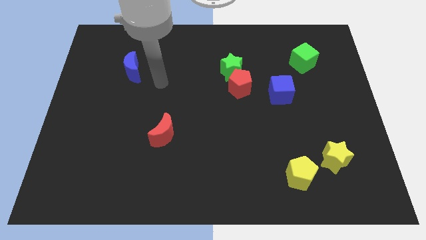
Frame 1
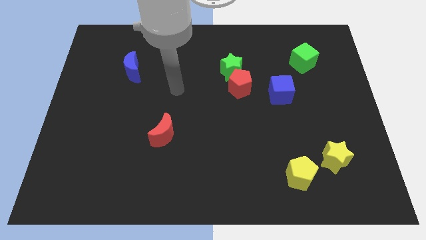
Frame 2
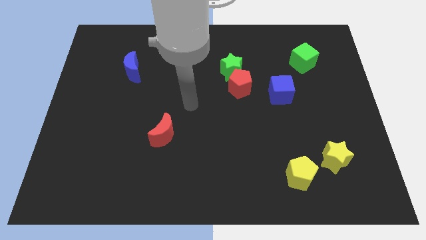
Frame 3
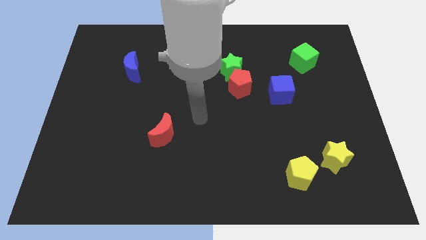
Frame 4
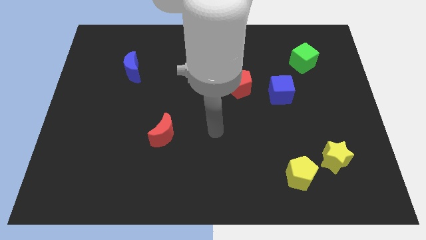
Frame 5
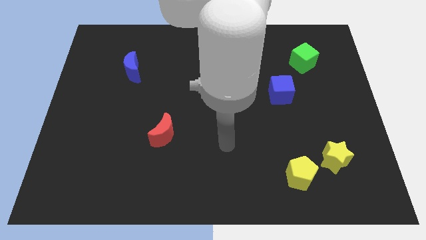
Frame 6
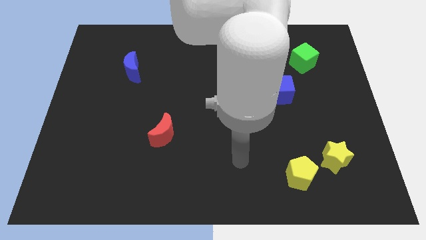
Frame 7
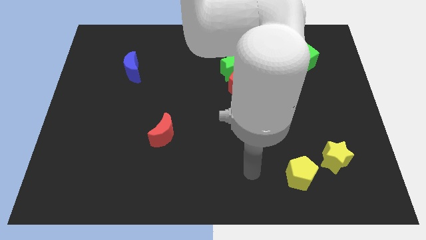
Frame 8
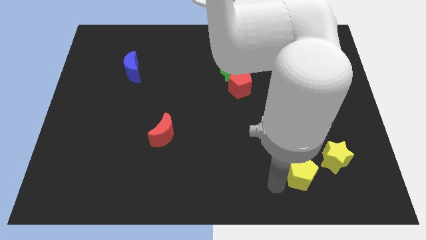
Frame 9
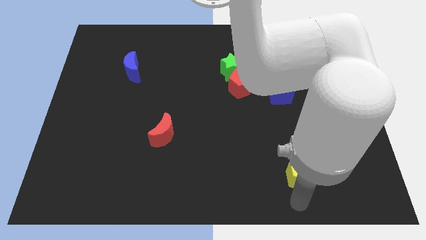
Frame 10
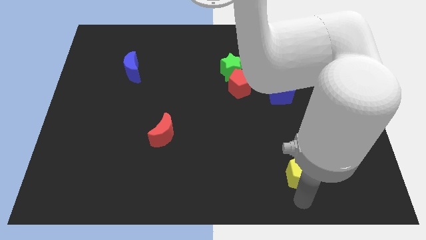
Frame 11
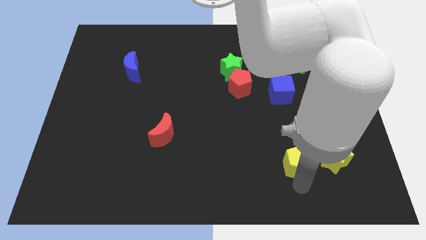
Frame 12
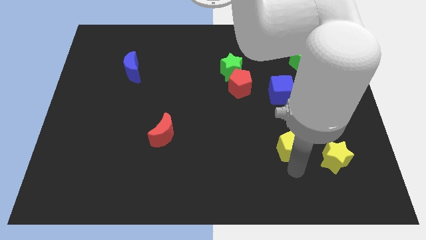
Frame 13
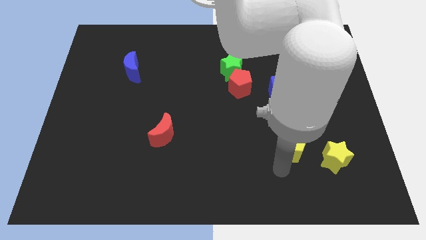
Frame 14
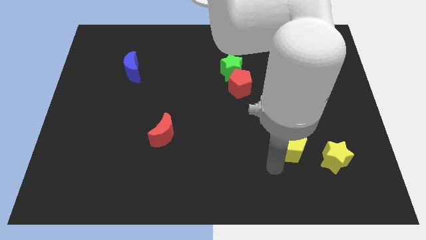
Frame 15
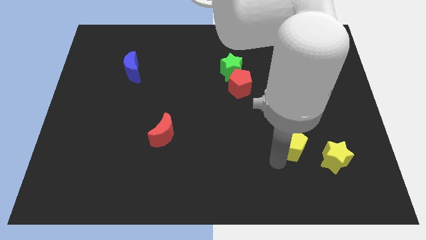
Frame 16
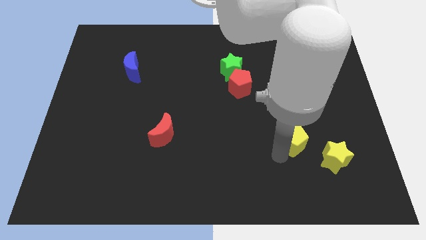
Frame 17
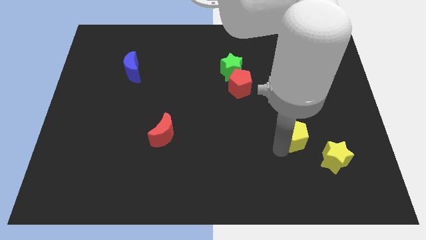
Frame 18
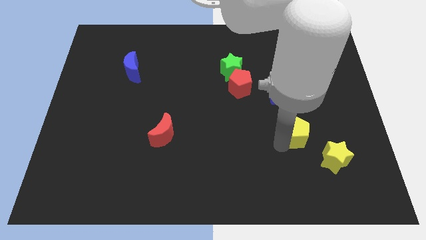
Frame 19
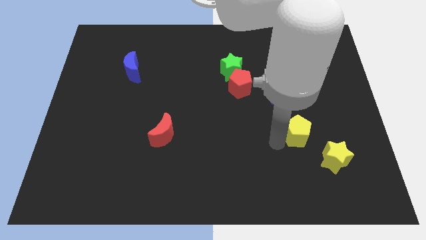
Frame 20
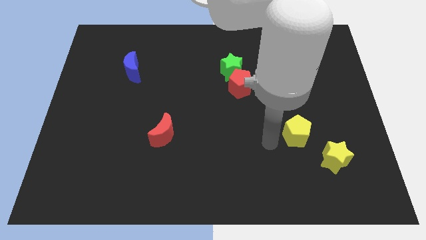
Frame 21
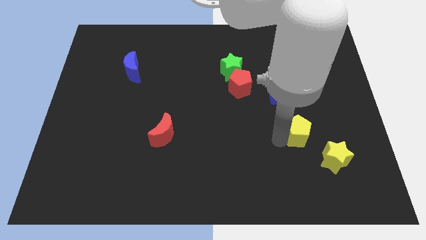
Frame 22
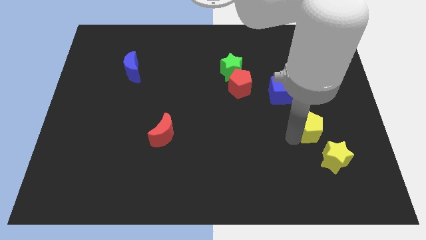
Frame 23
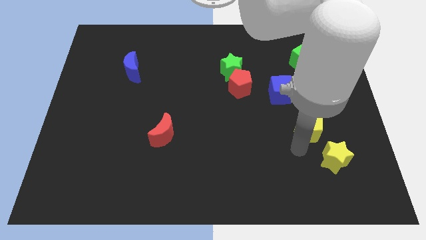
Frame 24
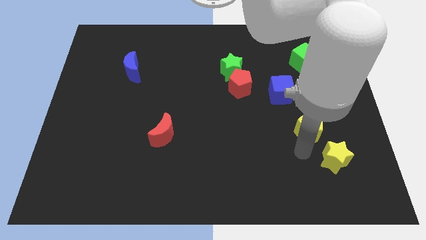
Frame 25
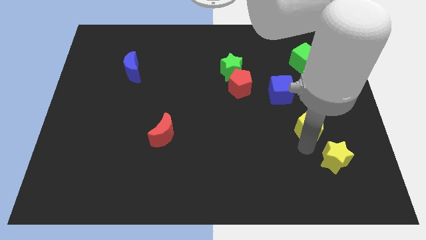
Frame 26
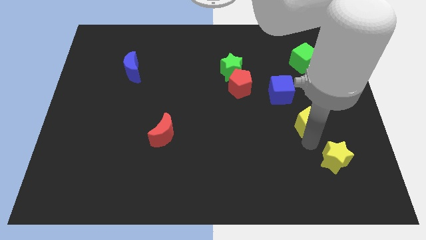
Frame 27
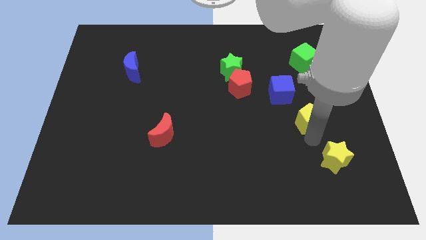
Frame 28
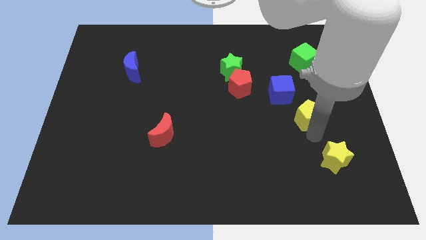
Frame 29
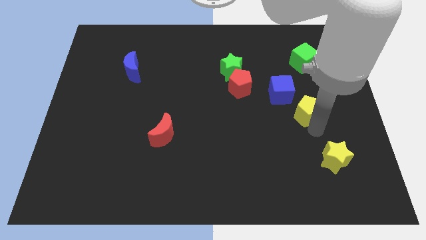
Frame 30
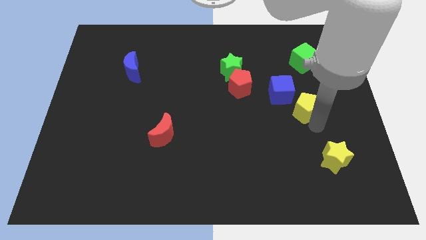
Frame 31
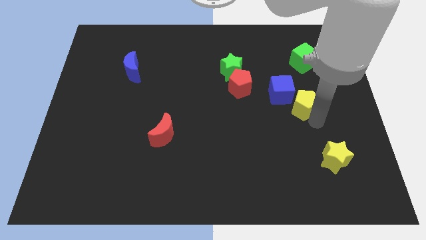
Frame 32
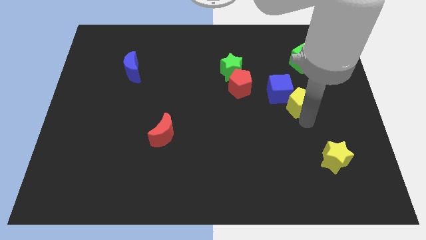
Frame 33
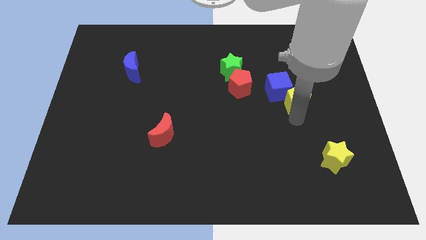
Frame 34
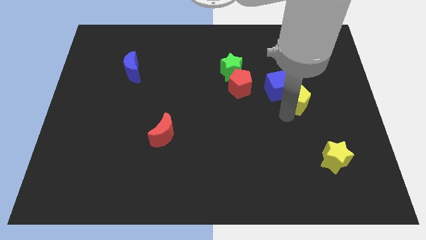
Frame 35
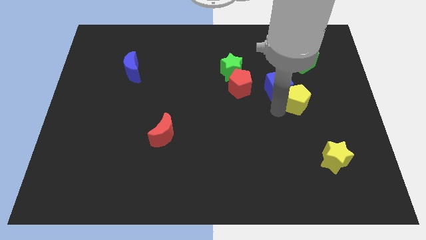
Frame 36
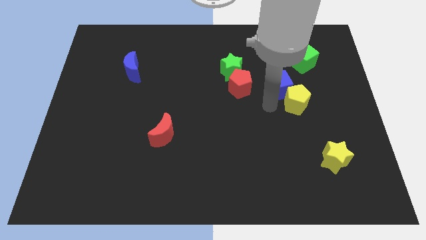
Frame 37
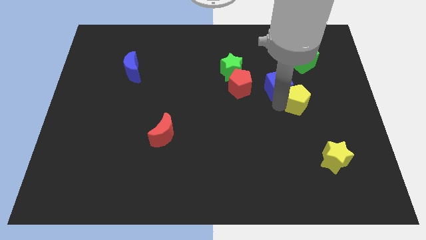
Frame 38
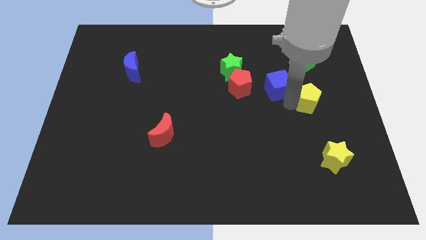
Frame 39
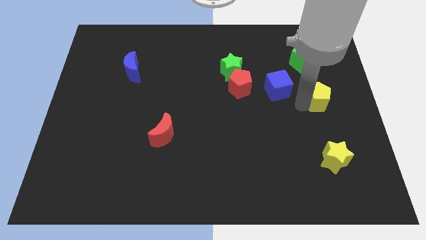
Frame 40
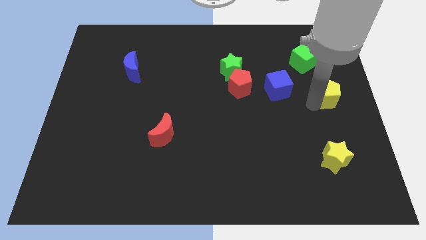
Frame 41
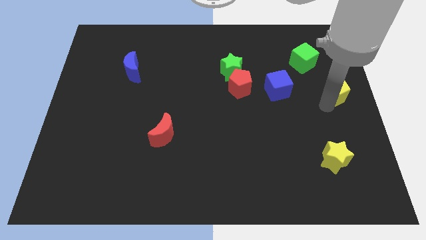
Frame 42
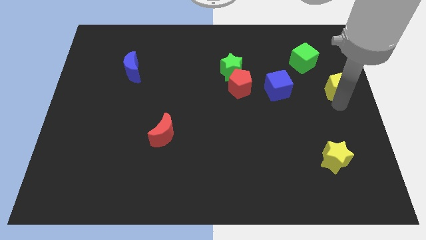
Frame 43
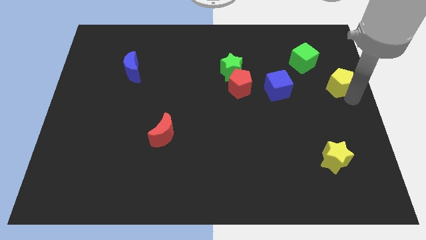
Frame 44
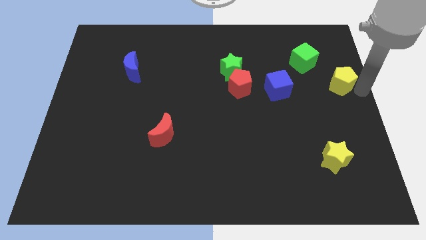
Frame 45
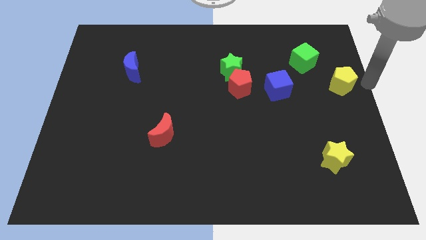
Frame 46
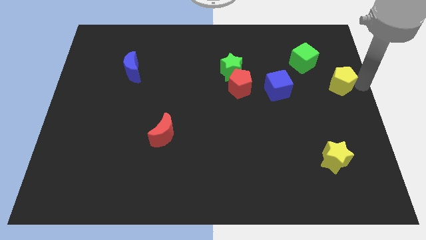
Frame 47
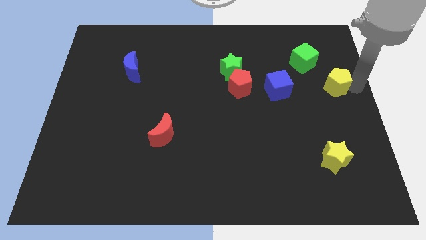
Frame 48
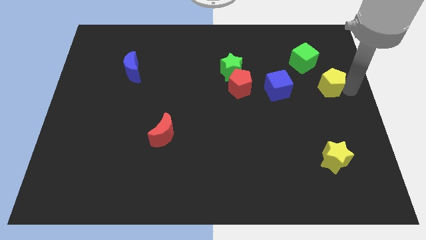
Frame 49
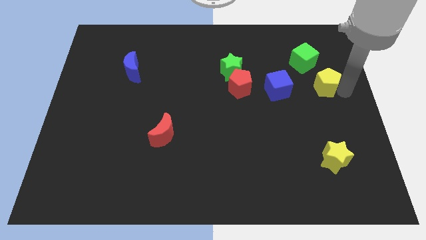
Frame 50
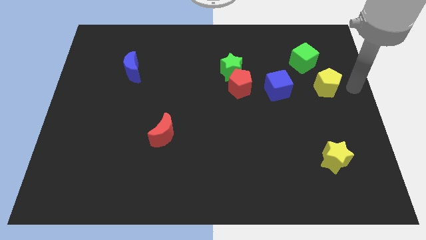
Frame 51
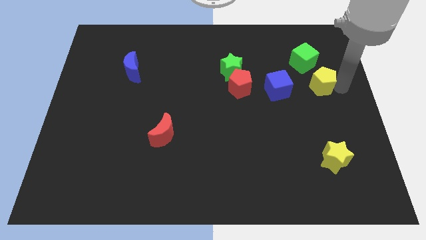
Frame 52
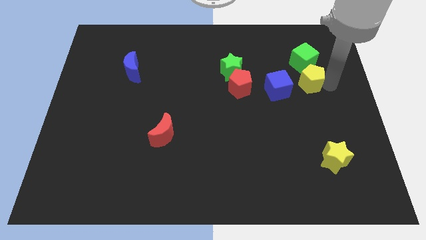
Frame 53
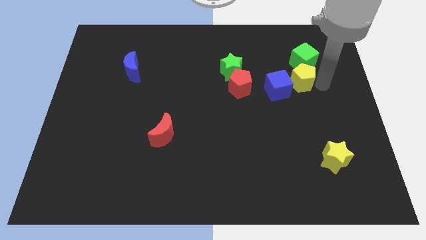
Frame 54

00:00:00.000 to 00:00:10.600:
push the yellow pentagon to the bottom left of the green cube

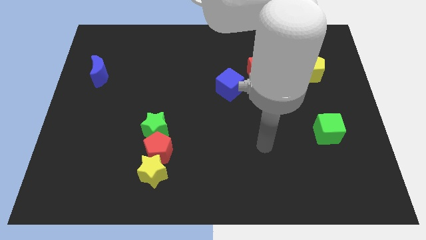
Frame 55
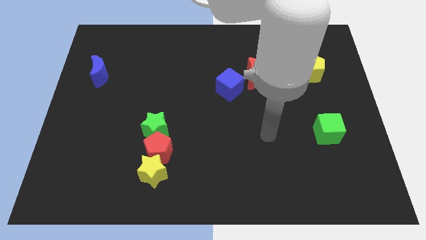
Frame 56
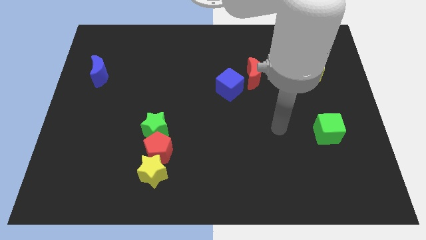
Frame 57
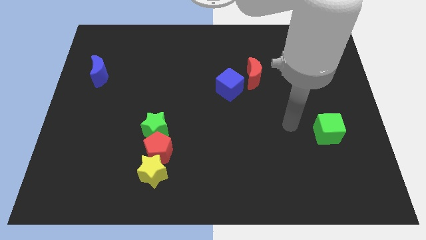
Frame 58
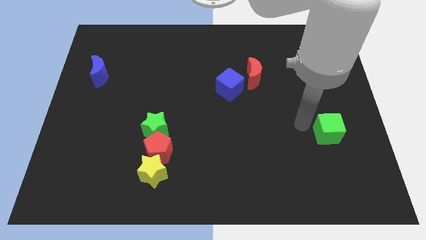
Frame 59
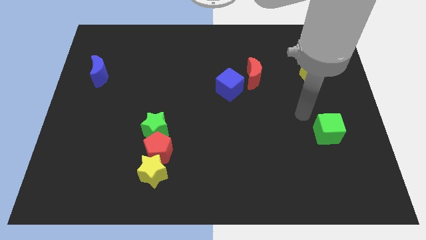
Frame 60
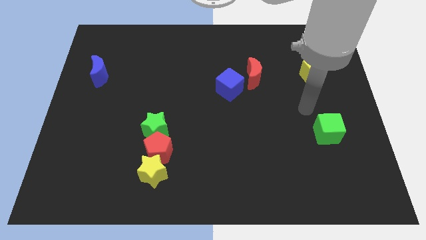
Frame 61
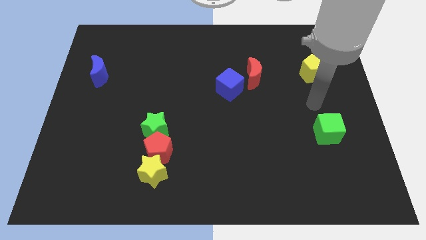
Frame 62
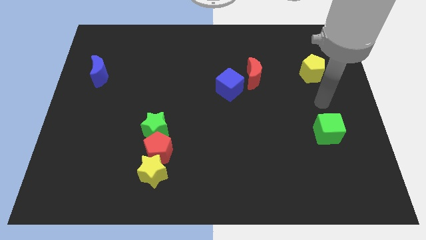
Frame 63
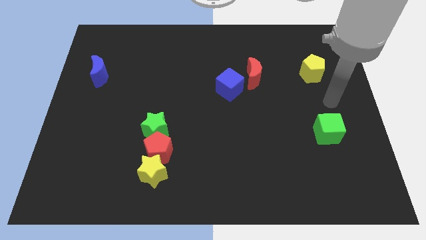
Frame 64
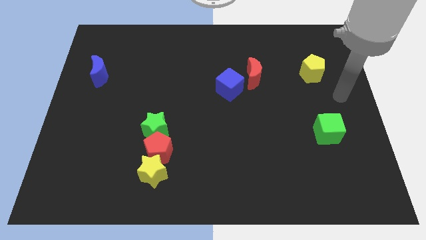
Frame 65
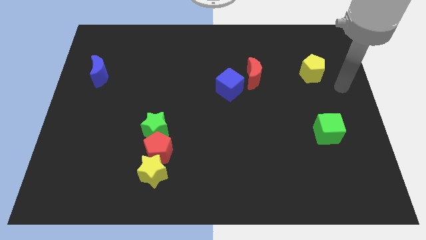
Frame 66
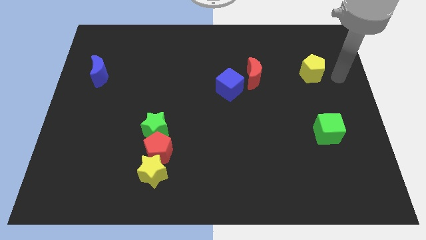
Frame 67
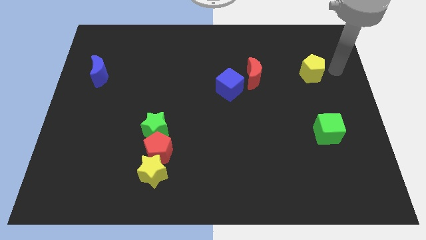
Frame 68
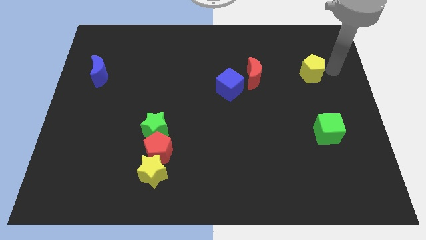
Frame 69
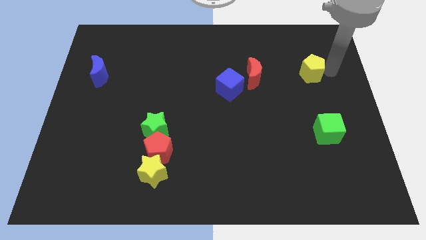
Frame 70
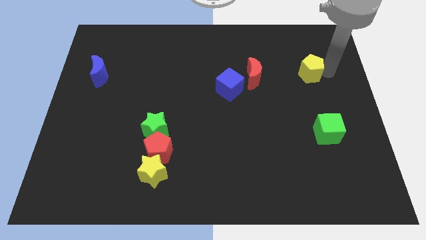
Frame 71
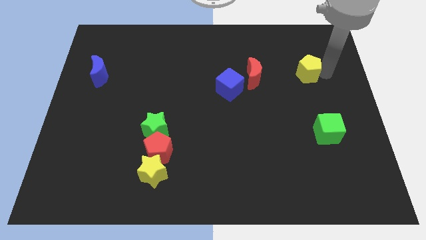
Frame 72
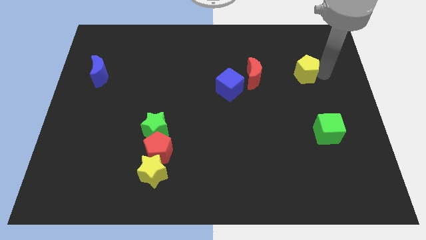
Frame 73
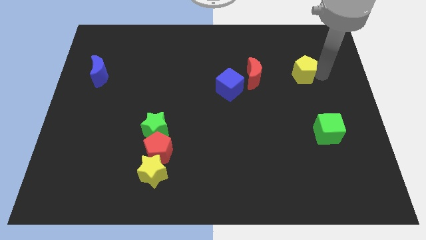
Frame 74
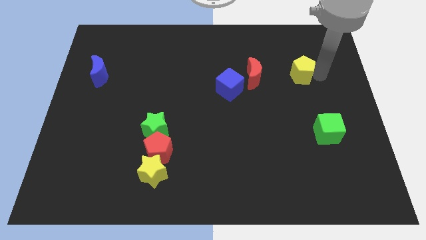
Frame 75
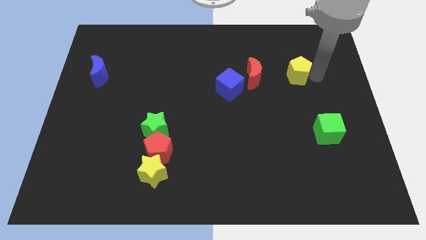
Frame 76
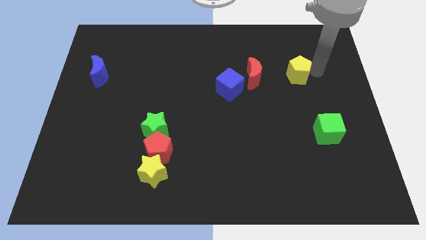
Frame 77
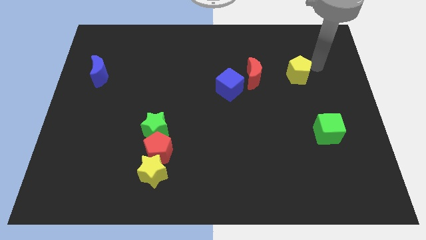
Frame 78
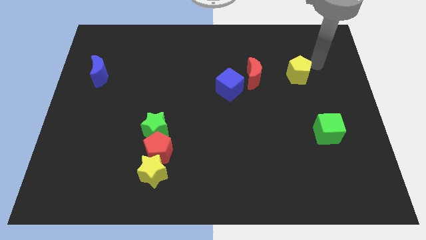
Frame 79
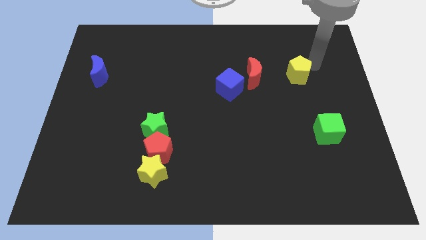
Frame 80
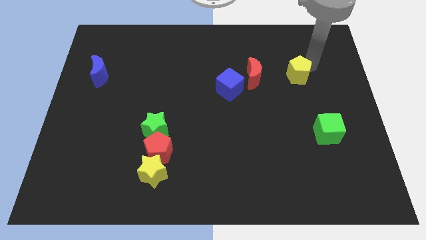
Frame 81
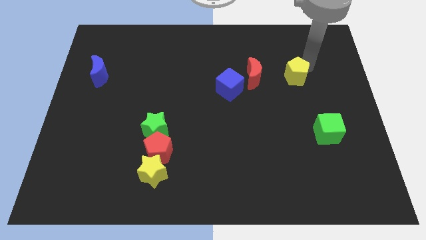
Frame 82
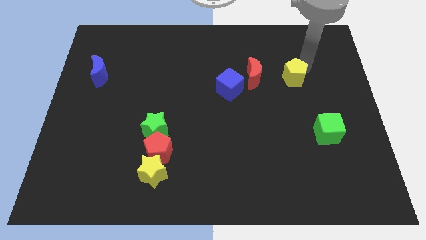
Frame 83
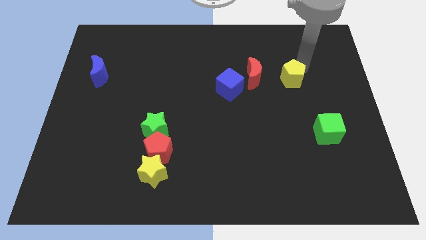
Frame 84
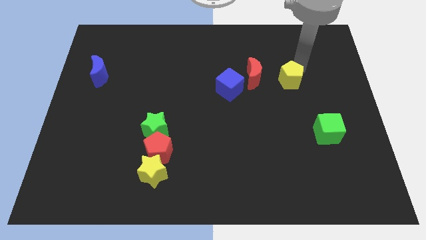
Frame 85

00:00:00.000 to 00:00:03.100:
push the yellow pentagon to the right side of the blue cube
